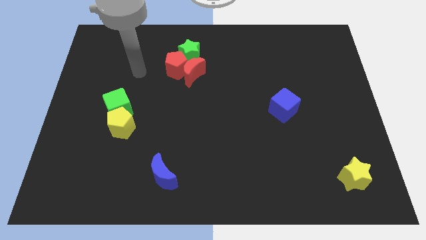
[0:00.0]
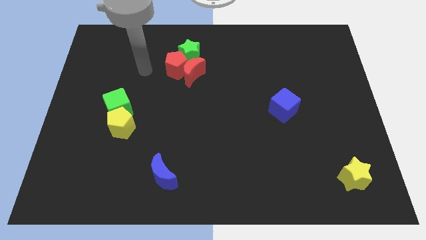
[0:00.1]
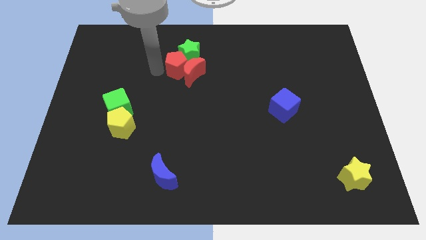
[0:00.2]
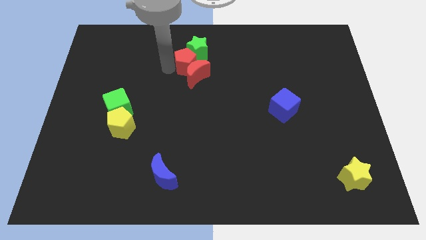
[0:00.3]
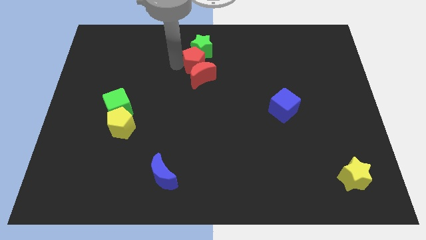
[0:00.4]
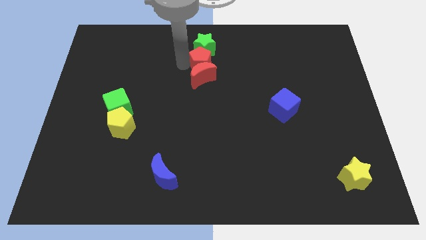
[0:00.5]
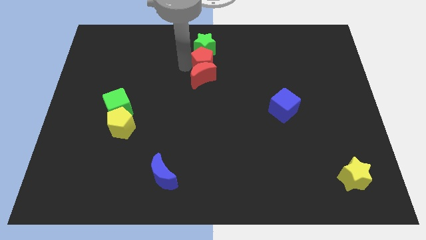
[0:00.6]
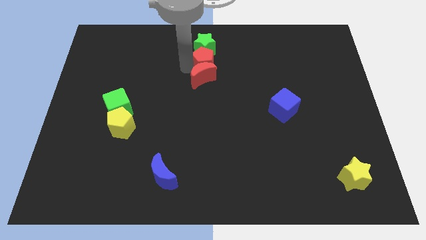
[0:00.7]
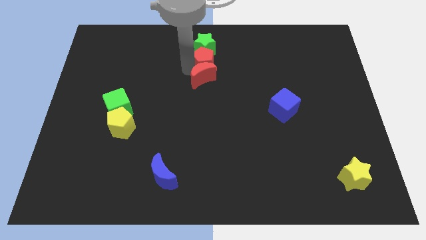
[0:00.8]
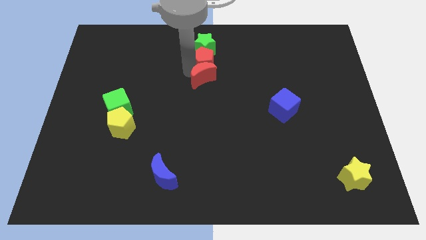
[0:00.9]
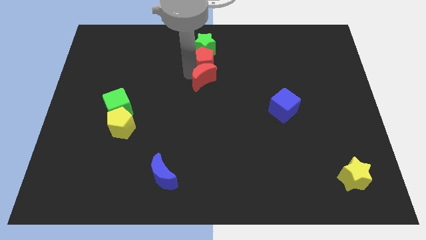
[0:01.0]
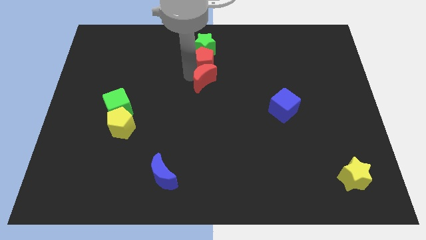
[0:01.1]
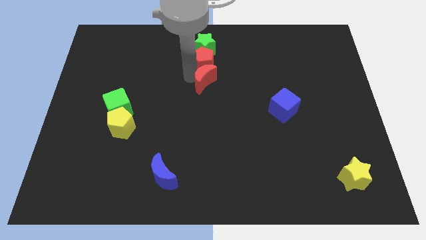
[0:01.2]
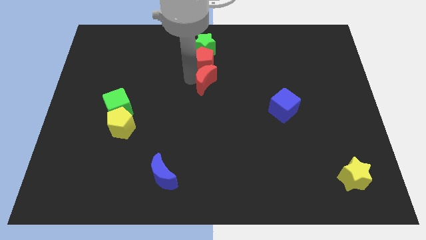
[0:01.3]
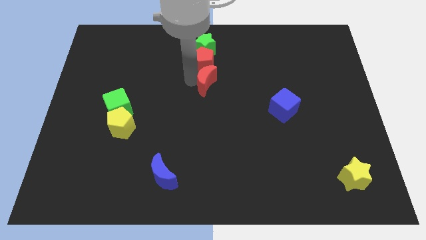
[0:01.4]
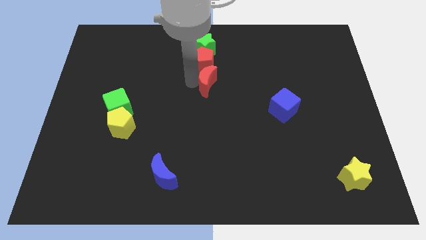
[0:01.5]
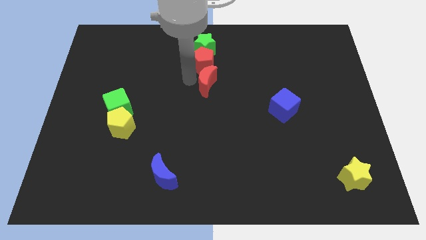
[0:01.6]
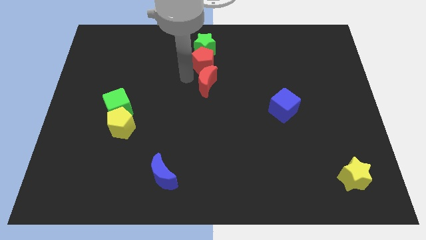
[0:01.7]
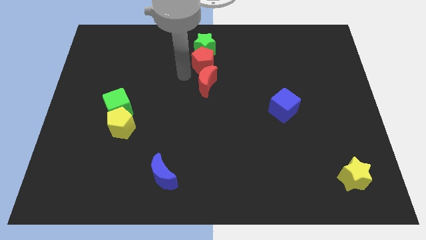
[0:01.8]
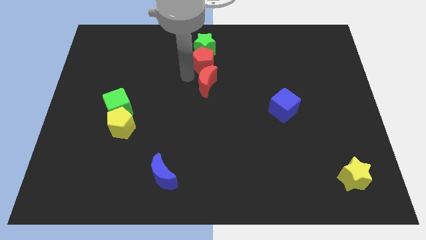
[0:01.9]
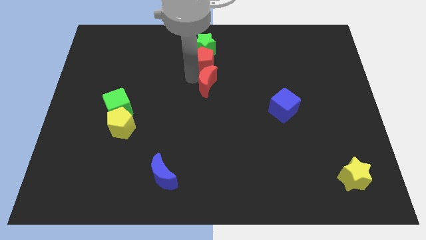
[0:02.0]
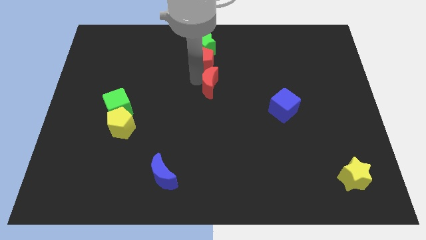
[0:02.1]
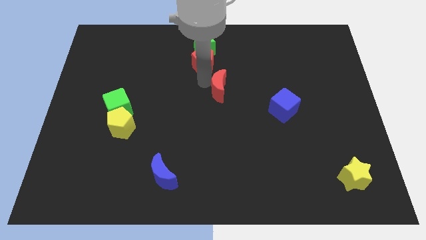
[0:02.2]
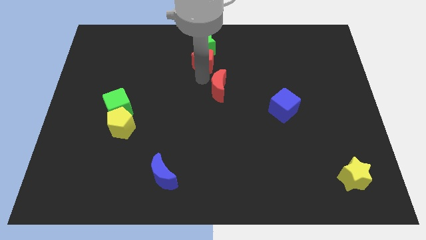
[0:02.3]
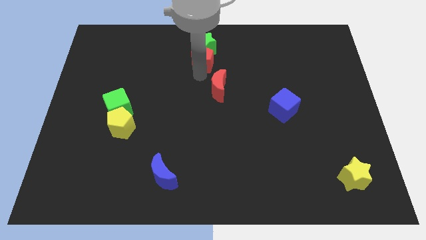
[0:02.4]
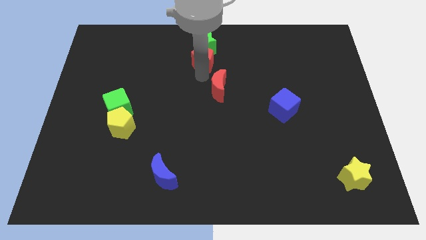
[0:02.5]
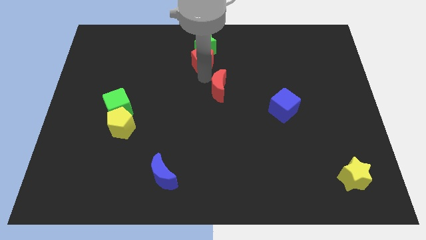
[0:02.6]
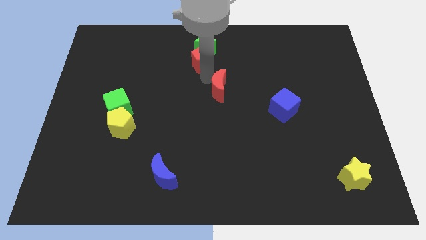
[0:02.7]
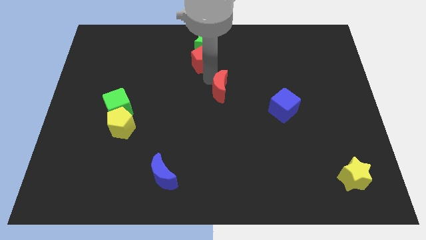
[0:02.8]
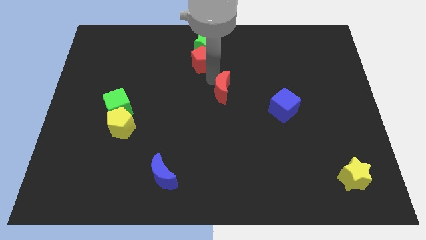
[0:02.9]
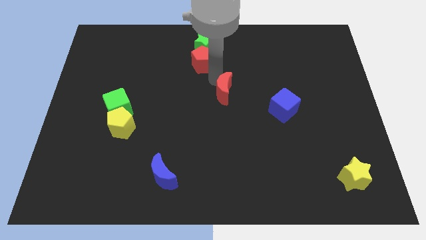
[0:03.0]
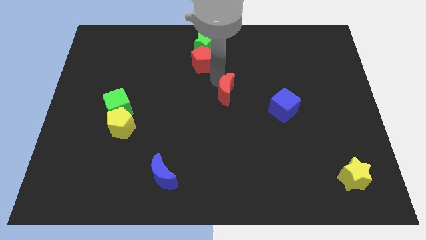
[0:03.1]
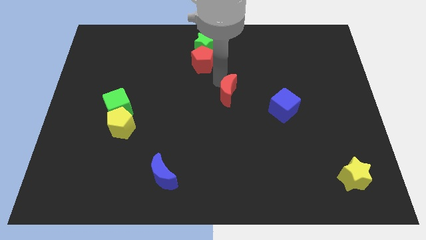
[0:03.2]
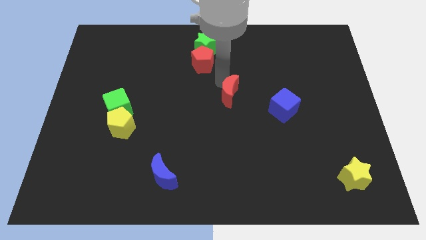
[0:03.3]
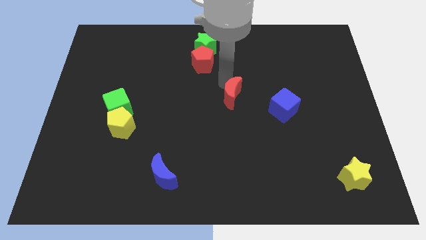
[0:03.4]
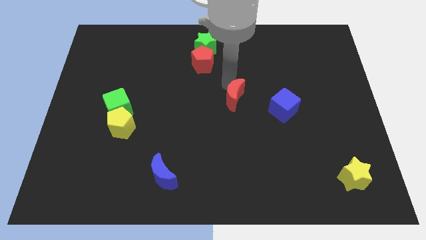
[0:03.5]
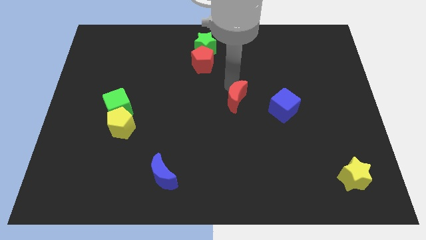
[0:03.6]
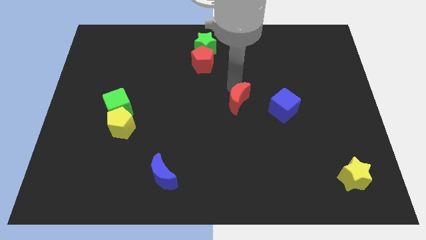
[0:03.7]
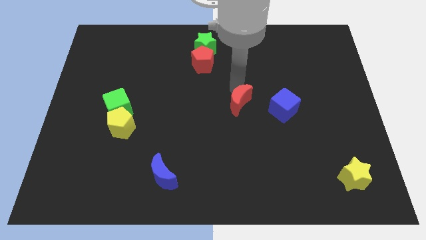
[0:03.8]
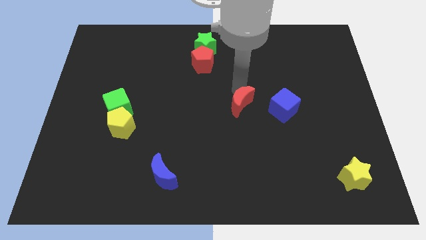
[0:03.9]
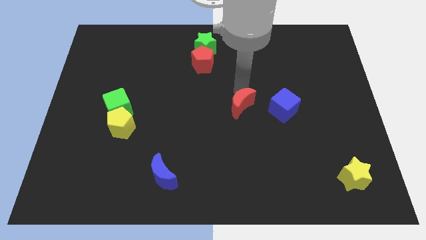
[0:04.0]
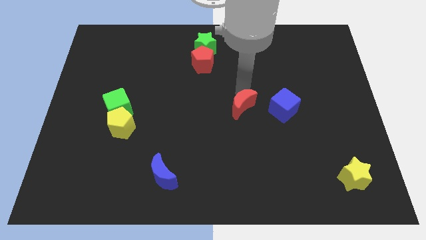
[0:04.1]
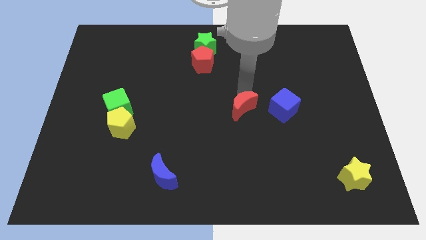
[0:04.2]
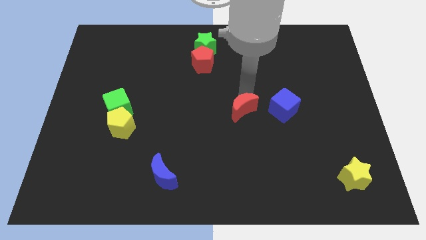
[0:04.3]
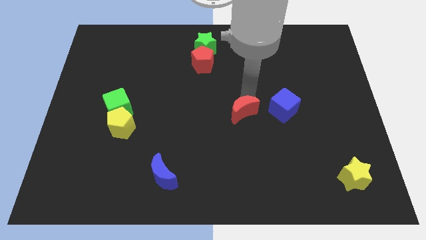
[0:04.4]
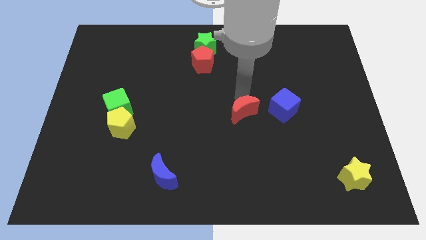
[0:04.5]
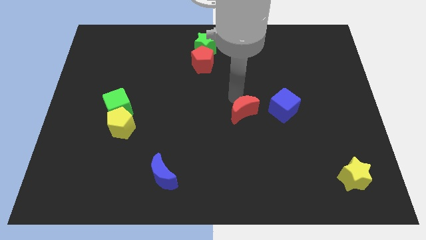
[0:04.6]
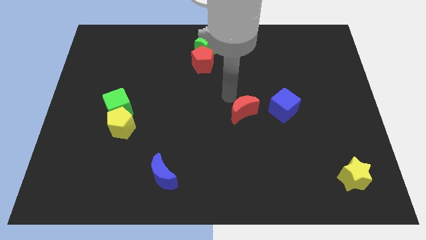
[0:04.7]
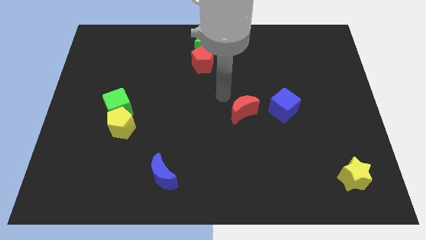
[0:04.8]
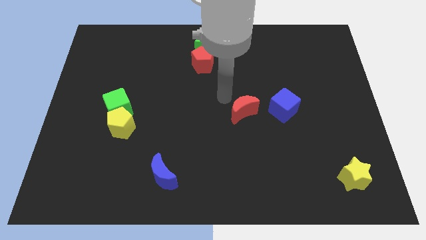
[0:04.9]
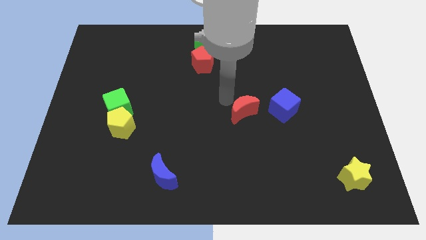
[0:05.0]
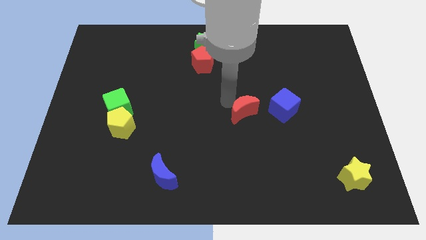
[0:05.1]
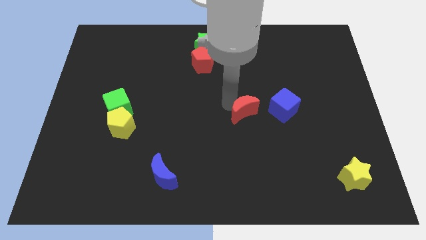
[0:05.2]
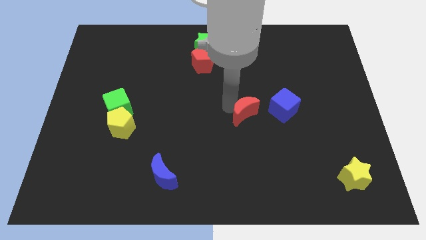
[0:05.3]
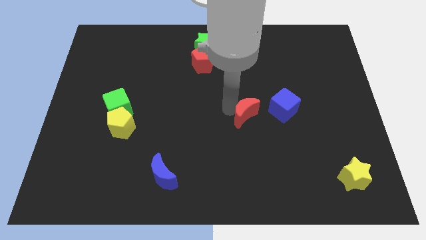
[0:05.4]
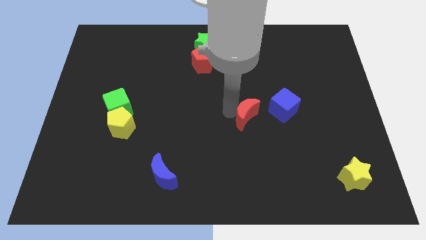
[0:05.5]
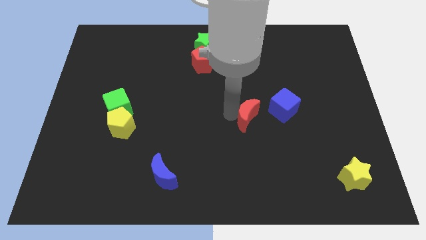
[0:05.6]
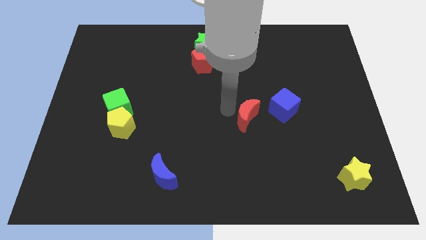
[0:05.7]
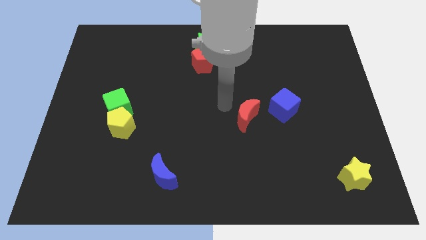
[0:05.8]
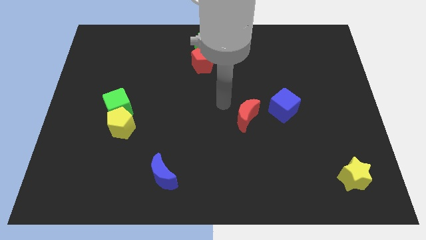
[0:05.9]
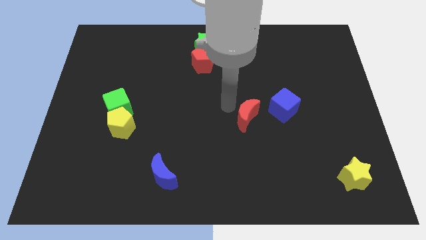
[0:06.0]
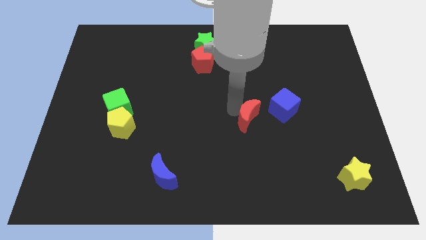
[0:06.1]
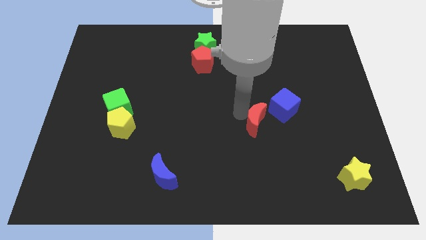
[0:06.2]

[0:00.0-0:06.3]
move the red moon down and then to the right

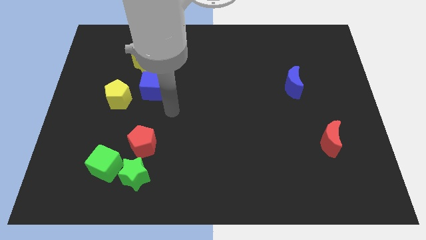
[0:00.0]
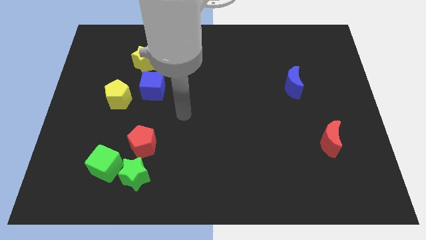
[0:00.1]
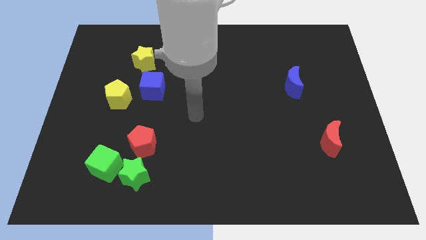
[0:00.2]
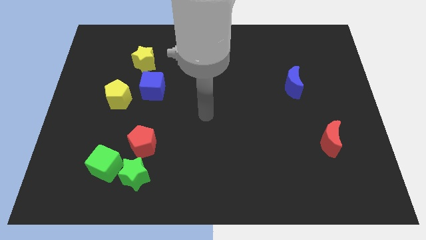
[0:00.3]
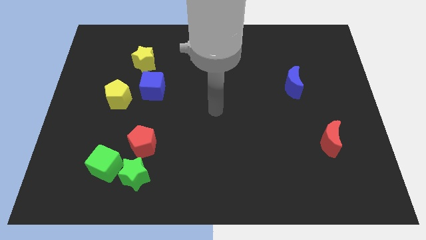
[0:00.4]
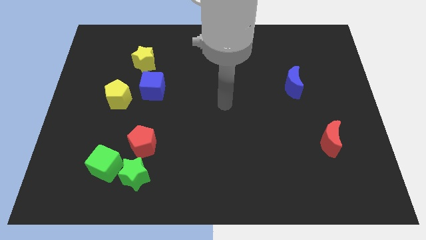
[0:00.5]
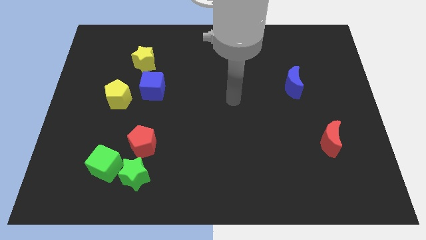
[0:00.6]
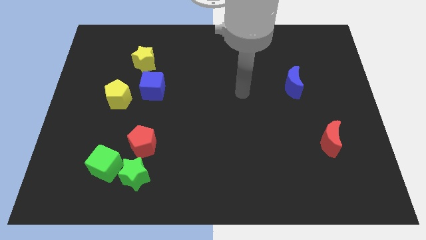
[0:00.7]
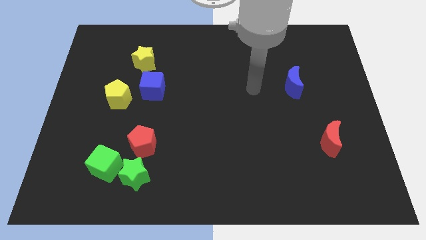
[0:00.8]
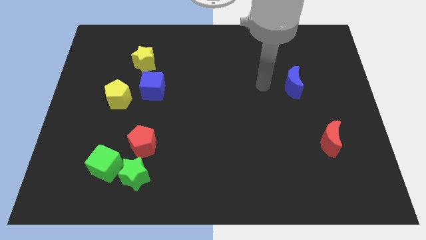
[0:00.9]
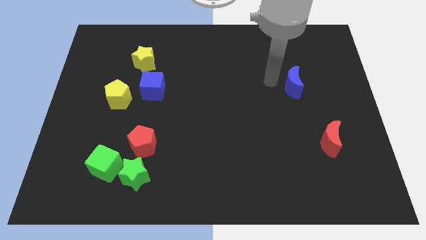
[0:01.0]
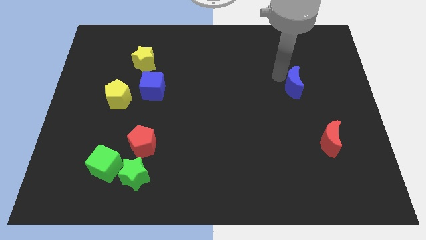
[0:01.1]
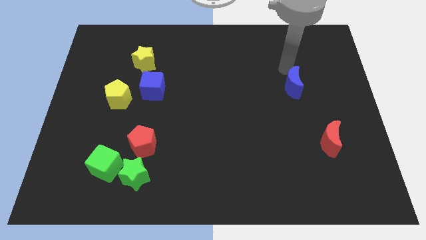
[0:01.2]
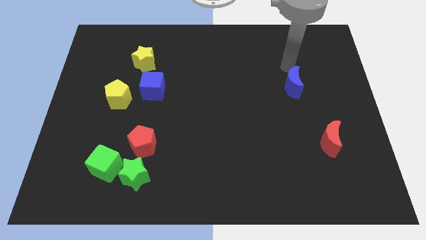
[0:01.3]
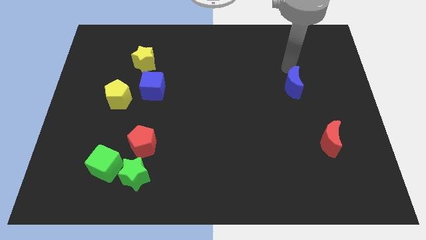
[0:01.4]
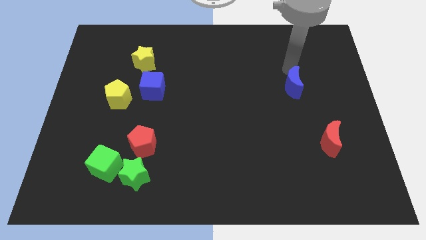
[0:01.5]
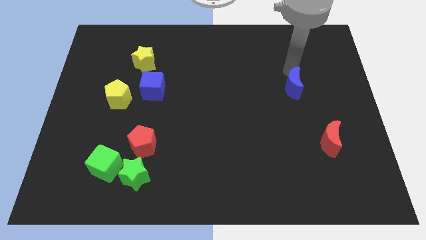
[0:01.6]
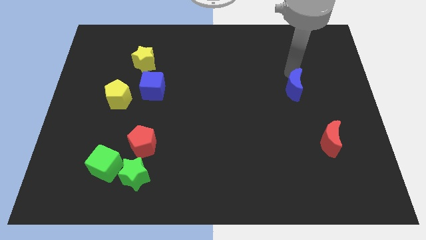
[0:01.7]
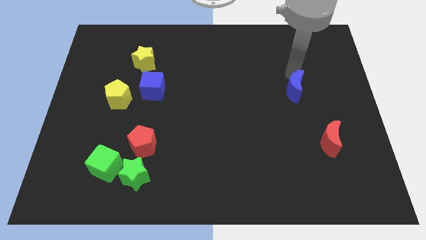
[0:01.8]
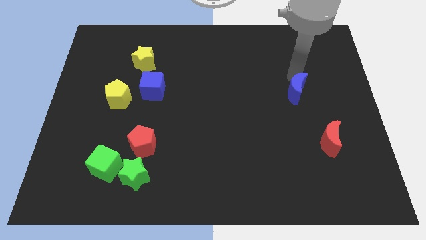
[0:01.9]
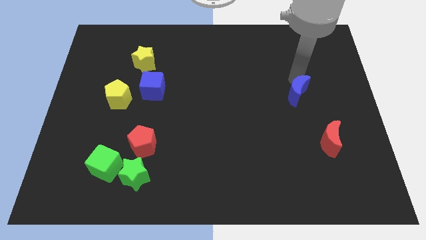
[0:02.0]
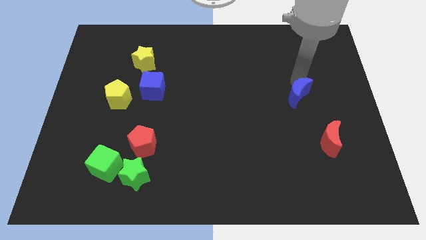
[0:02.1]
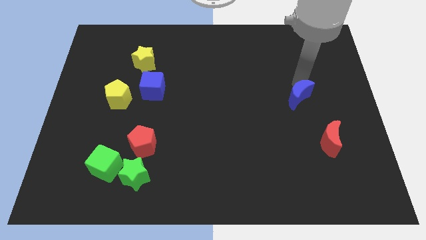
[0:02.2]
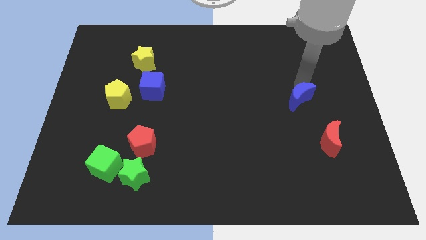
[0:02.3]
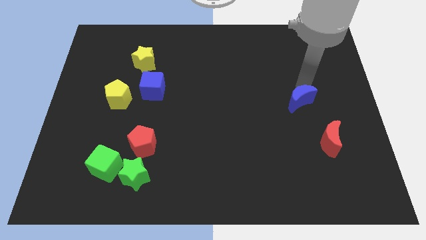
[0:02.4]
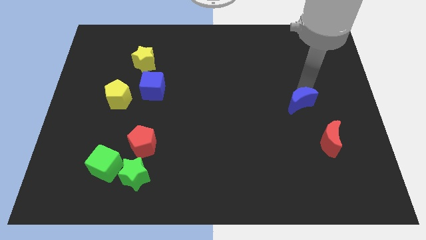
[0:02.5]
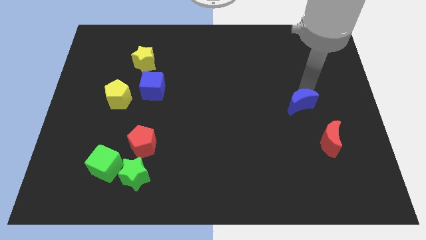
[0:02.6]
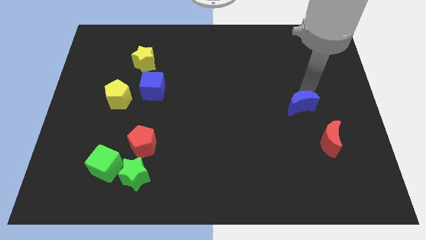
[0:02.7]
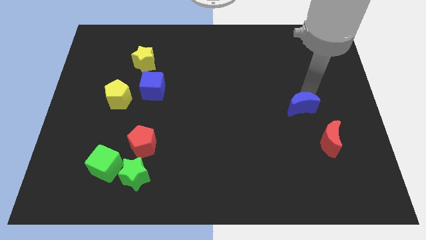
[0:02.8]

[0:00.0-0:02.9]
slide the blue moon slightly down
